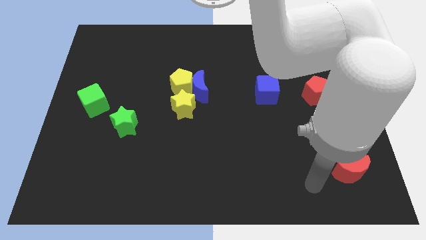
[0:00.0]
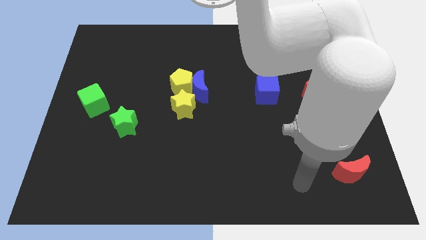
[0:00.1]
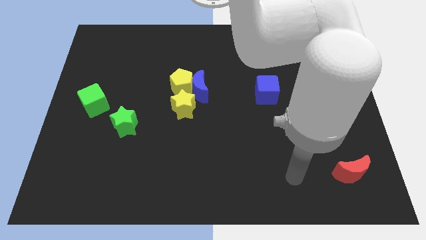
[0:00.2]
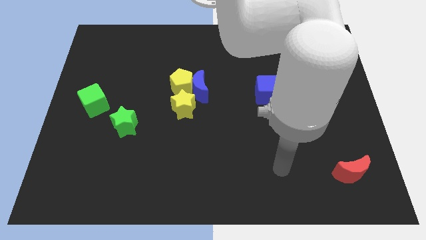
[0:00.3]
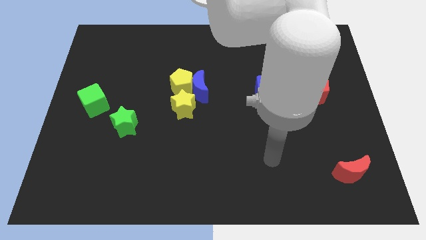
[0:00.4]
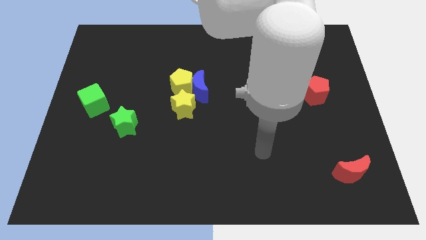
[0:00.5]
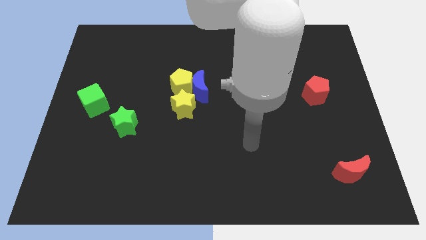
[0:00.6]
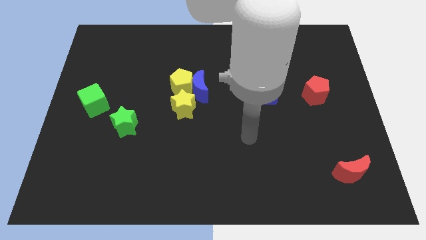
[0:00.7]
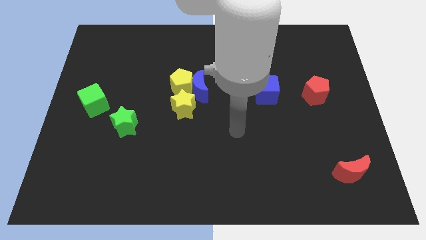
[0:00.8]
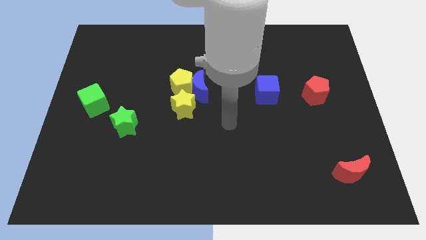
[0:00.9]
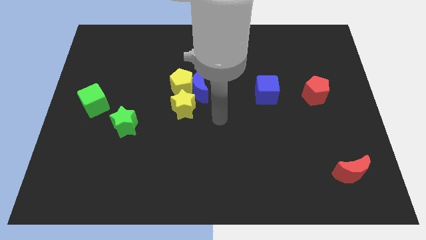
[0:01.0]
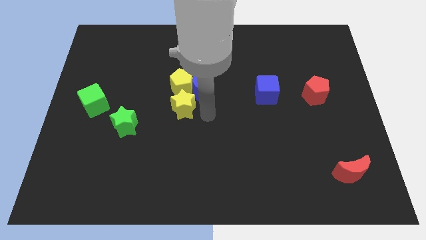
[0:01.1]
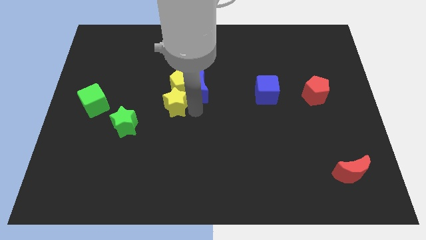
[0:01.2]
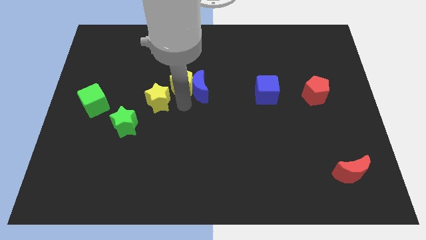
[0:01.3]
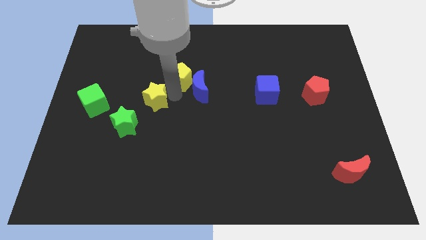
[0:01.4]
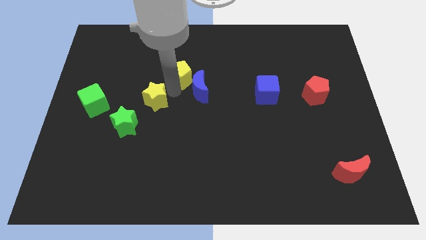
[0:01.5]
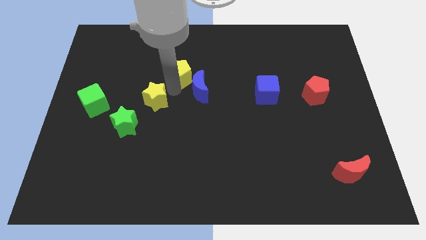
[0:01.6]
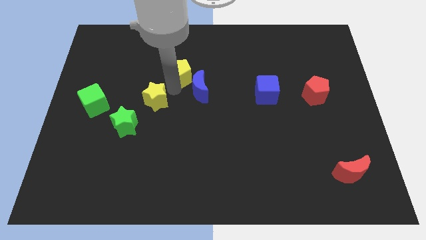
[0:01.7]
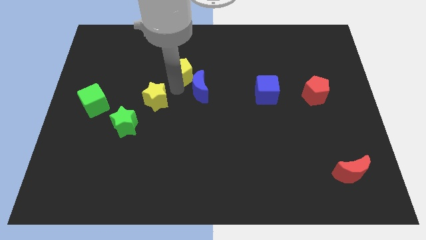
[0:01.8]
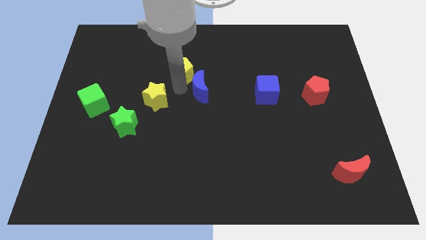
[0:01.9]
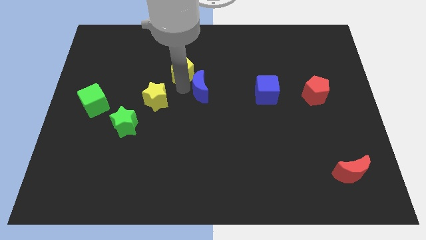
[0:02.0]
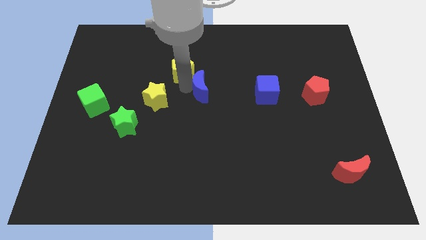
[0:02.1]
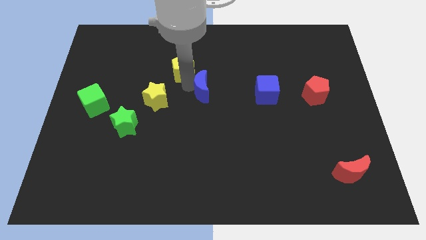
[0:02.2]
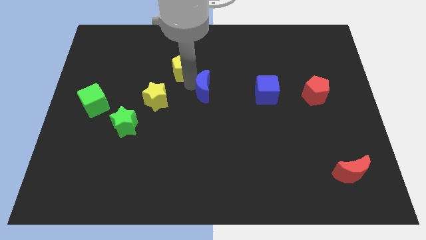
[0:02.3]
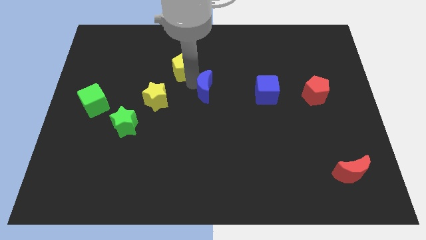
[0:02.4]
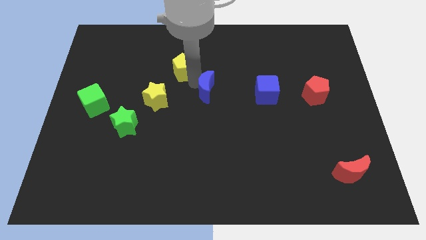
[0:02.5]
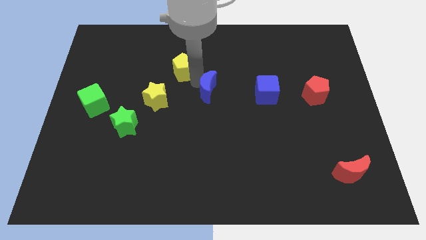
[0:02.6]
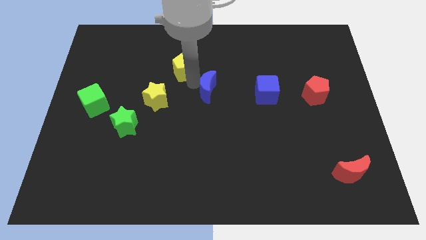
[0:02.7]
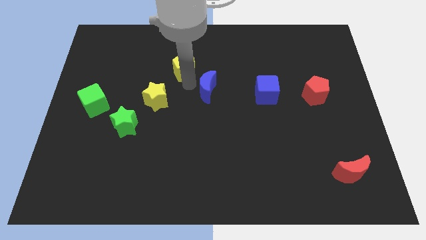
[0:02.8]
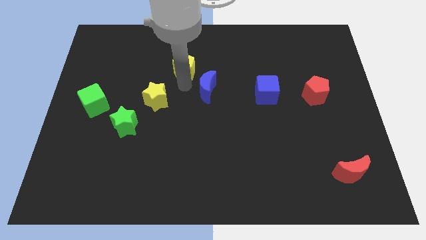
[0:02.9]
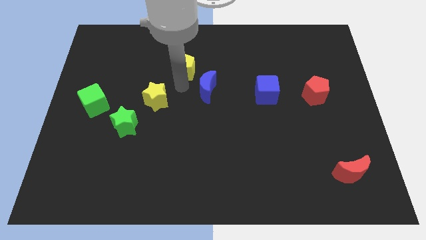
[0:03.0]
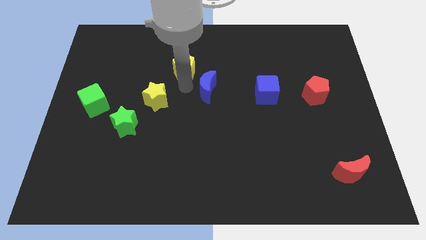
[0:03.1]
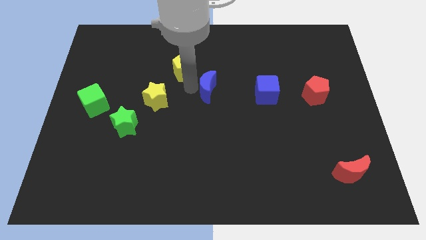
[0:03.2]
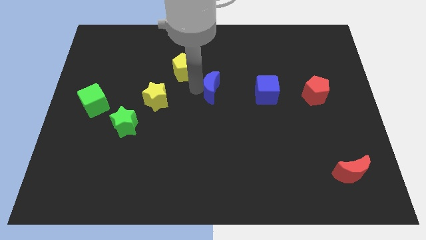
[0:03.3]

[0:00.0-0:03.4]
separate the blue moon from the yellow pentagon and yellow star

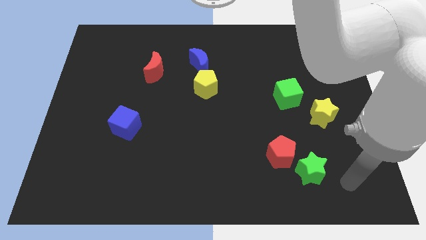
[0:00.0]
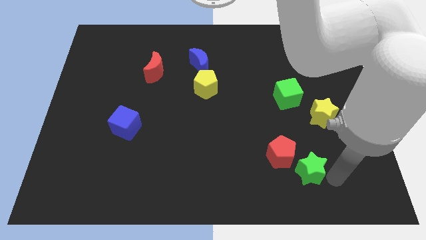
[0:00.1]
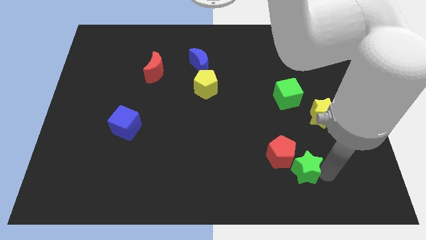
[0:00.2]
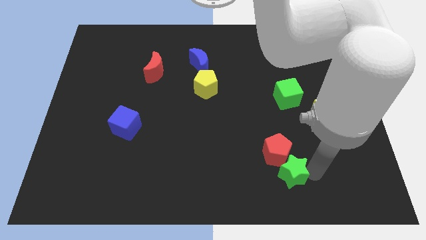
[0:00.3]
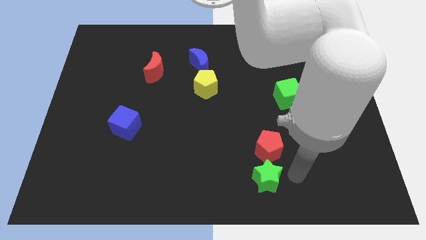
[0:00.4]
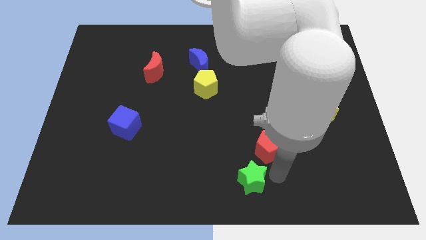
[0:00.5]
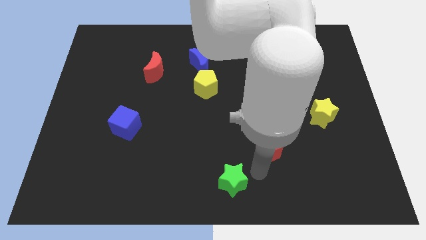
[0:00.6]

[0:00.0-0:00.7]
move the red pentagon away from the green star

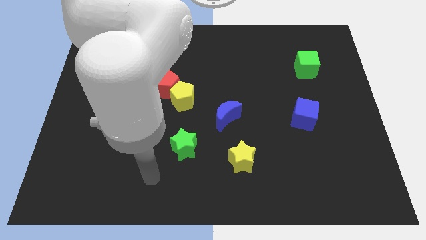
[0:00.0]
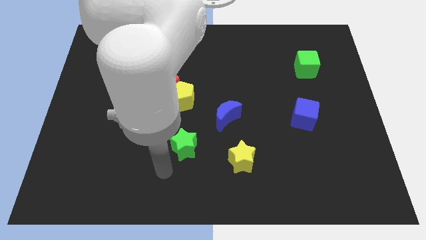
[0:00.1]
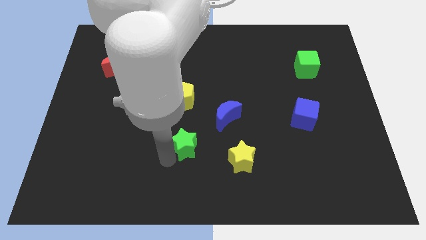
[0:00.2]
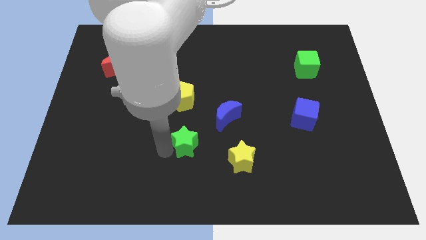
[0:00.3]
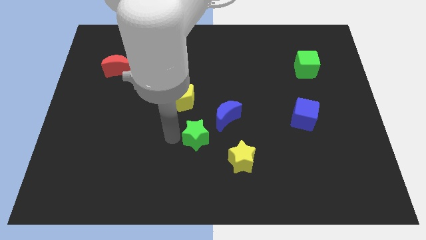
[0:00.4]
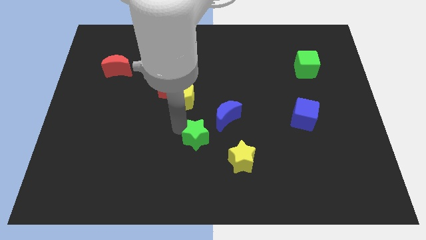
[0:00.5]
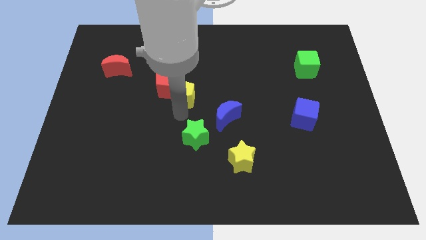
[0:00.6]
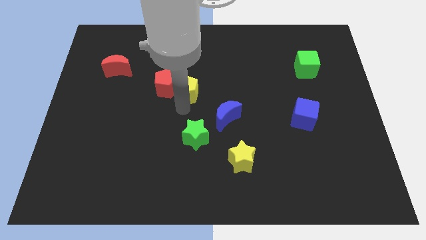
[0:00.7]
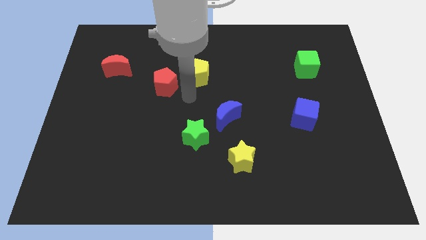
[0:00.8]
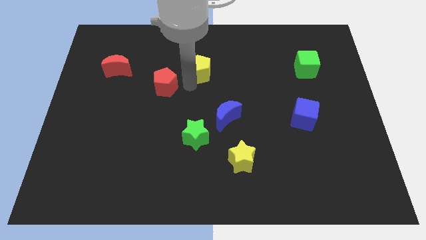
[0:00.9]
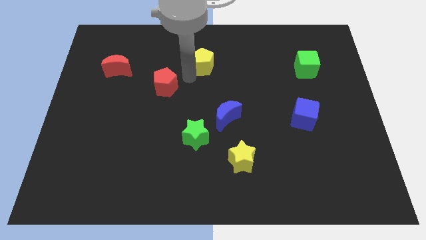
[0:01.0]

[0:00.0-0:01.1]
pull the red pentagon apart from the yellow pentagon

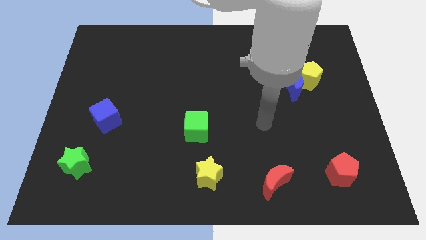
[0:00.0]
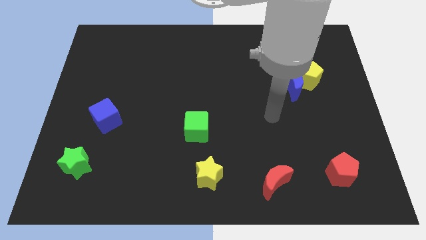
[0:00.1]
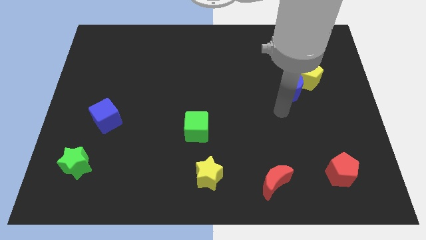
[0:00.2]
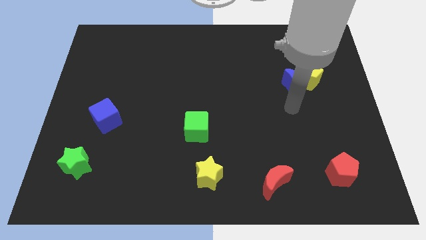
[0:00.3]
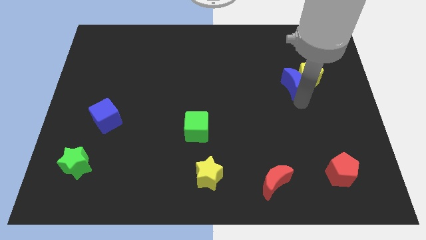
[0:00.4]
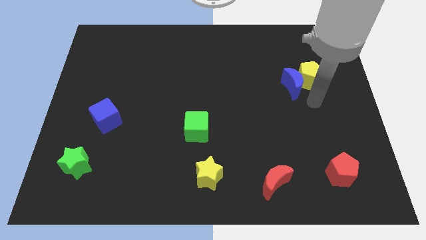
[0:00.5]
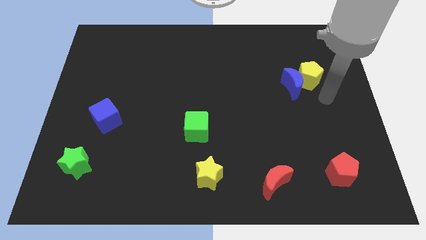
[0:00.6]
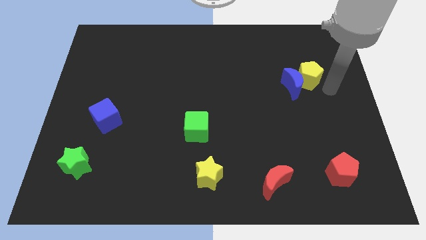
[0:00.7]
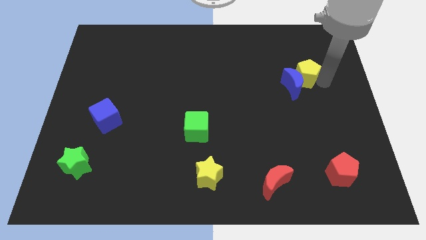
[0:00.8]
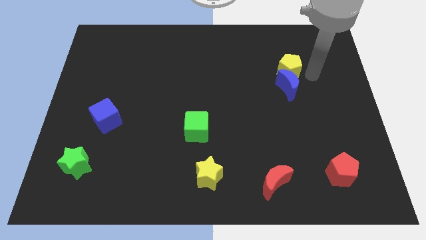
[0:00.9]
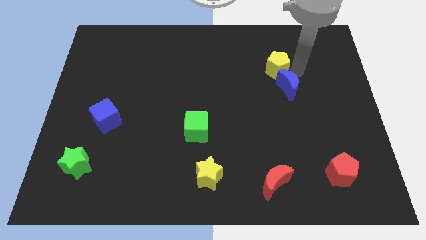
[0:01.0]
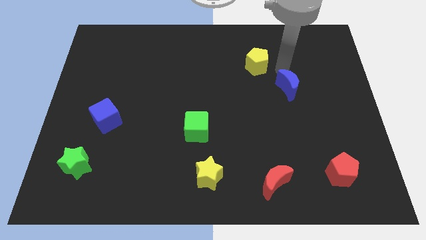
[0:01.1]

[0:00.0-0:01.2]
separate the blue moon from the yellow pentagon

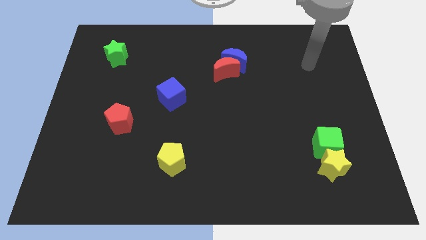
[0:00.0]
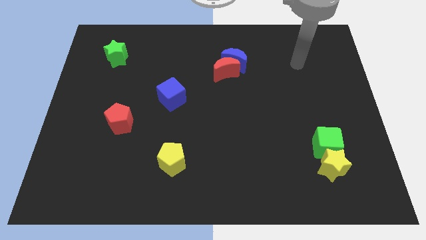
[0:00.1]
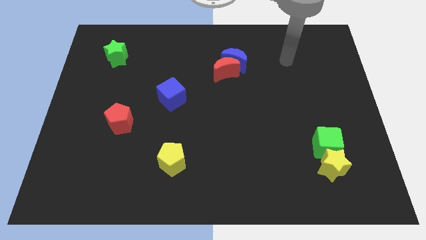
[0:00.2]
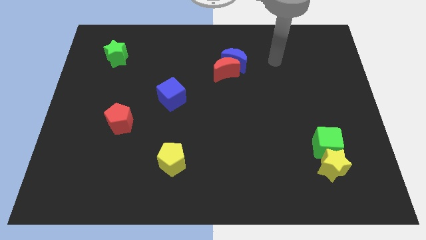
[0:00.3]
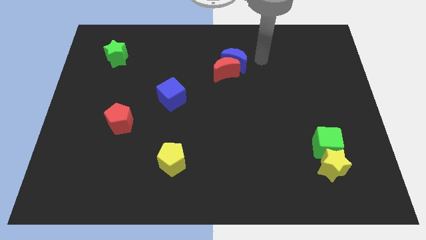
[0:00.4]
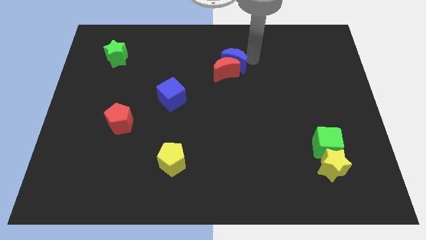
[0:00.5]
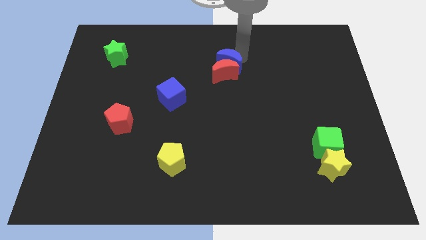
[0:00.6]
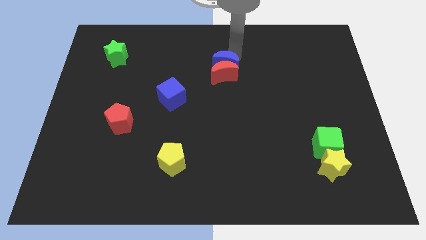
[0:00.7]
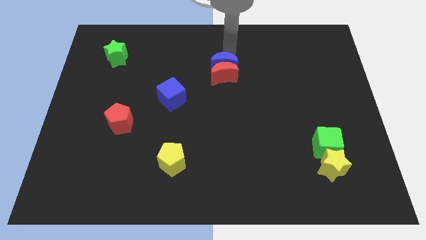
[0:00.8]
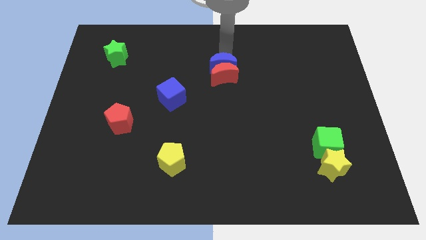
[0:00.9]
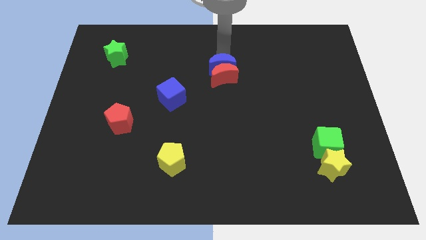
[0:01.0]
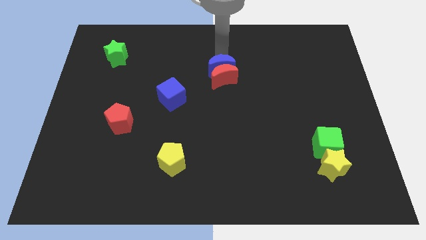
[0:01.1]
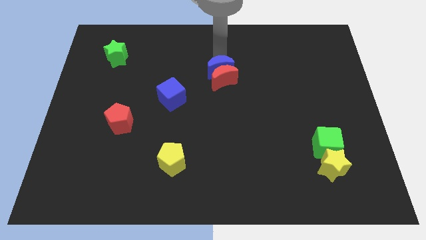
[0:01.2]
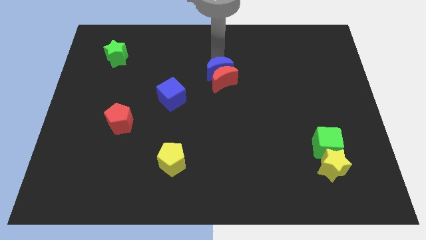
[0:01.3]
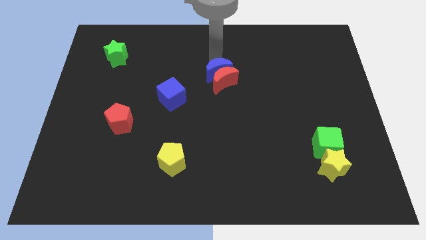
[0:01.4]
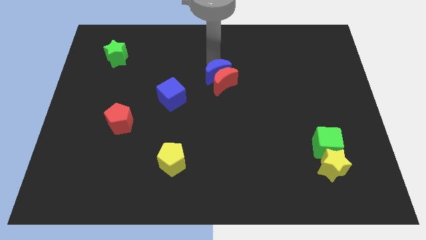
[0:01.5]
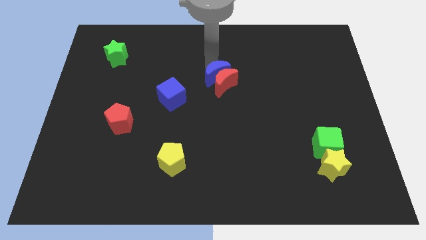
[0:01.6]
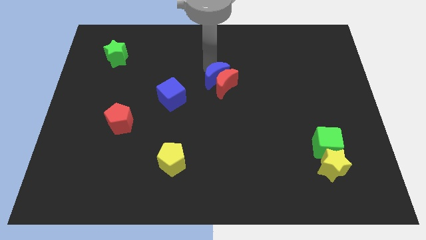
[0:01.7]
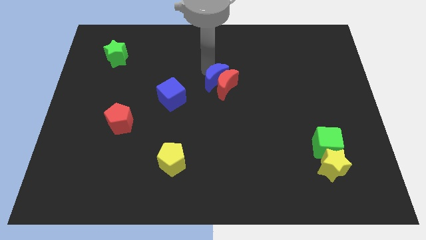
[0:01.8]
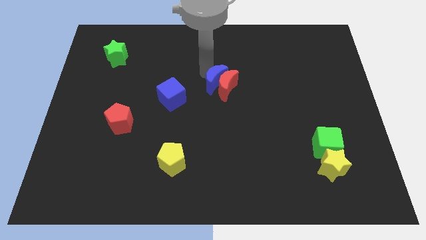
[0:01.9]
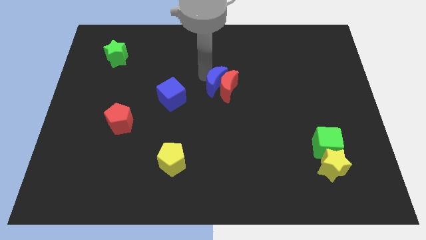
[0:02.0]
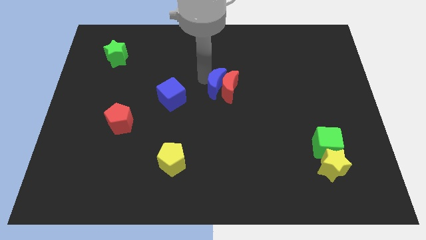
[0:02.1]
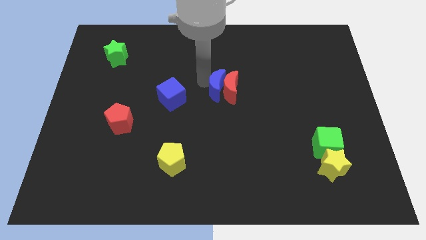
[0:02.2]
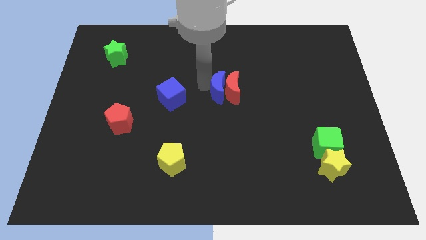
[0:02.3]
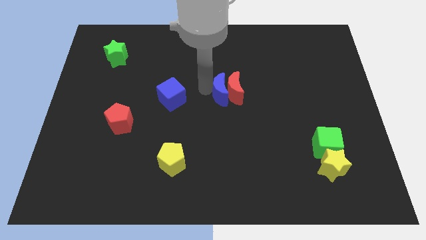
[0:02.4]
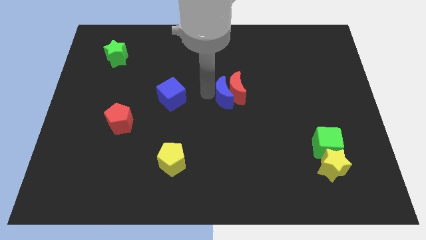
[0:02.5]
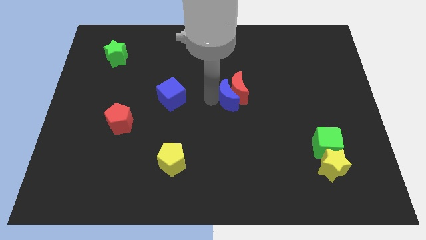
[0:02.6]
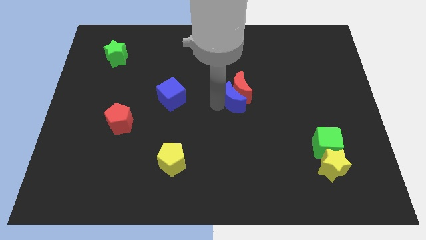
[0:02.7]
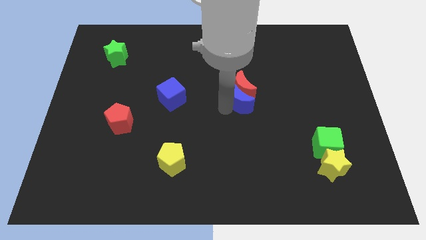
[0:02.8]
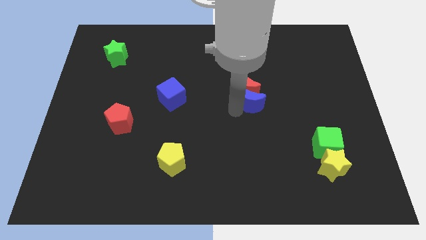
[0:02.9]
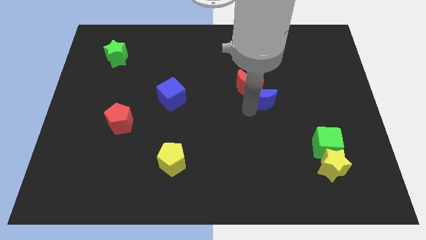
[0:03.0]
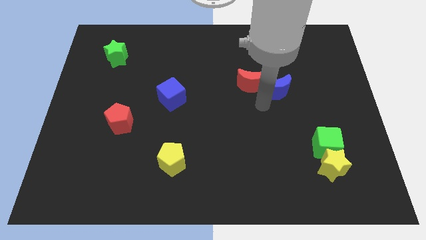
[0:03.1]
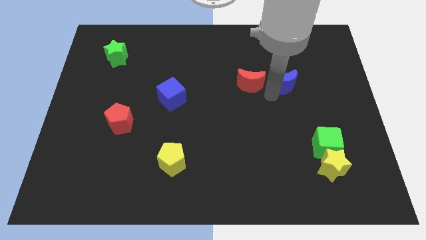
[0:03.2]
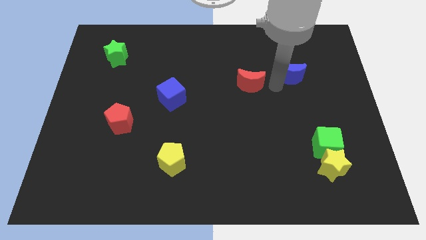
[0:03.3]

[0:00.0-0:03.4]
move the red moon away from the blue moon
